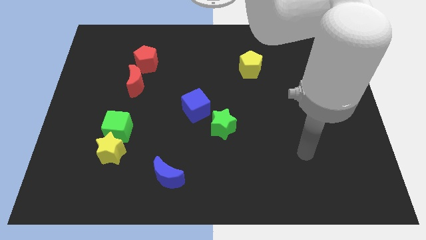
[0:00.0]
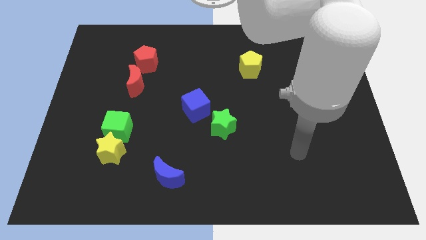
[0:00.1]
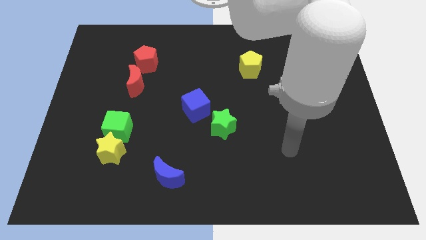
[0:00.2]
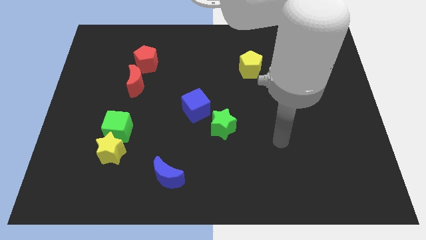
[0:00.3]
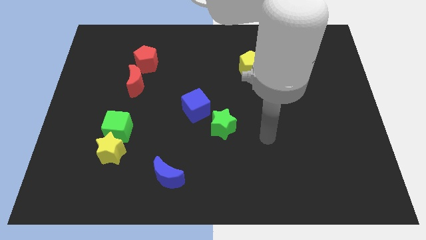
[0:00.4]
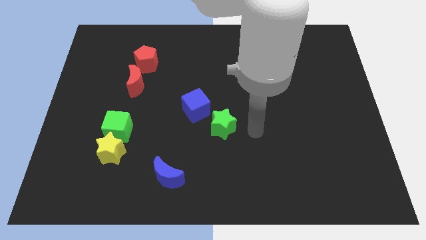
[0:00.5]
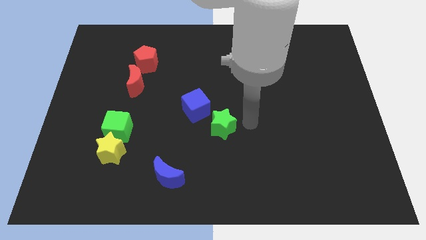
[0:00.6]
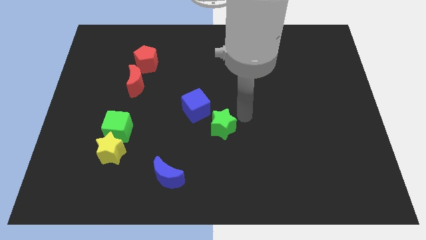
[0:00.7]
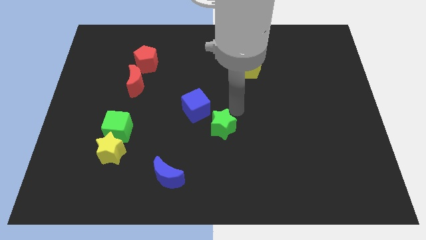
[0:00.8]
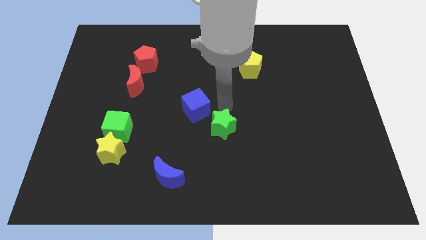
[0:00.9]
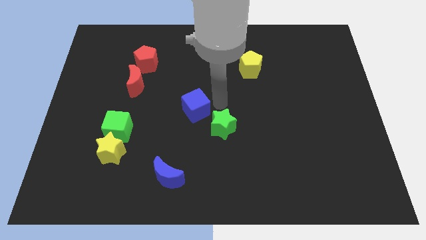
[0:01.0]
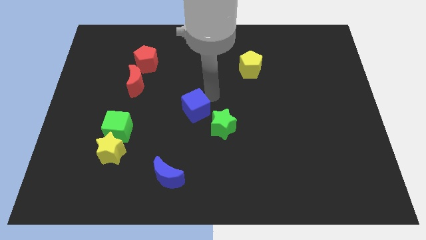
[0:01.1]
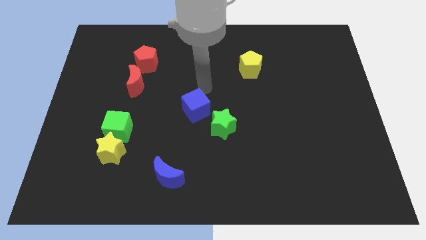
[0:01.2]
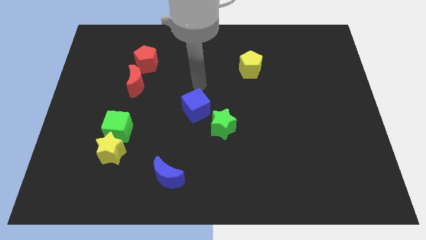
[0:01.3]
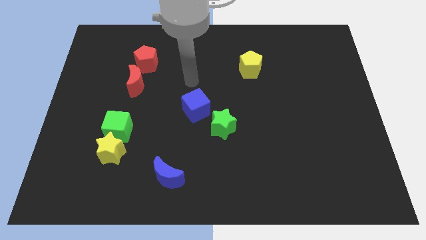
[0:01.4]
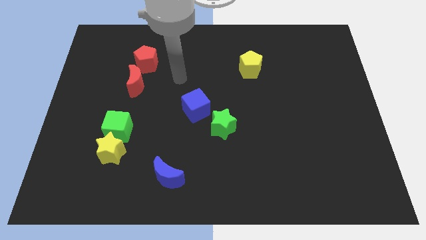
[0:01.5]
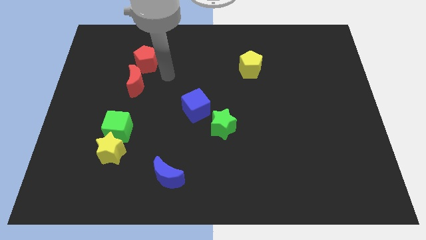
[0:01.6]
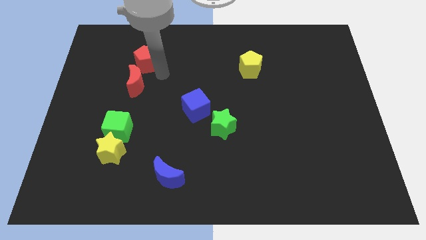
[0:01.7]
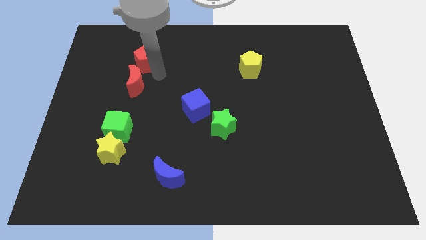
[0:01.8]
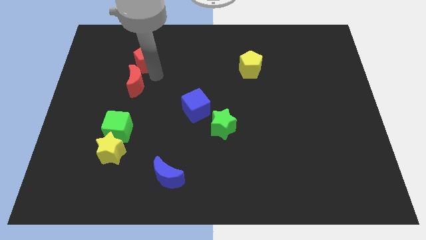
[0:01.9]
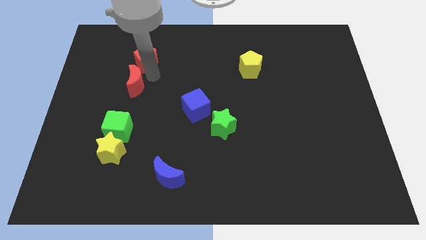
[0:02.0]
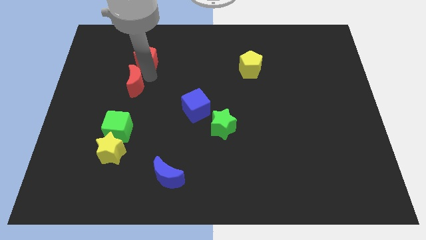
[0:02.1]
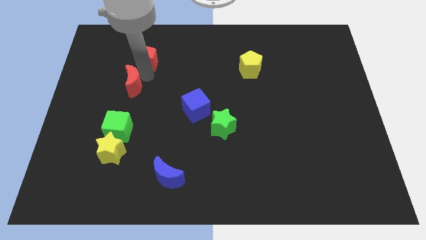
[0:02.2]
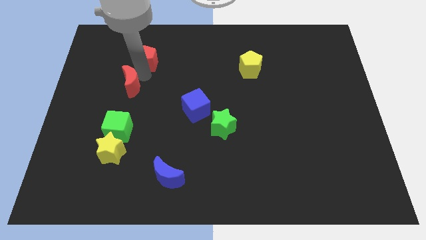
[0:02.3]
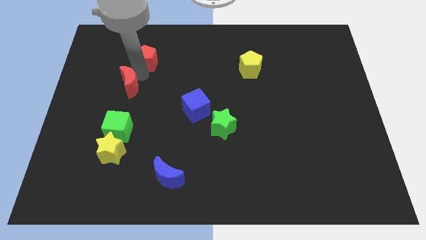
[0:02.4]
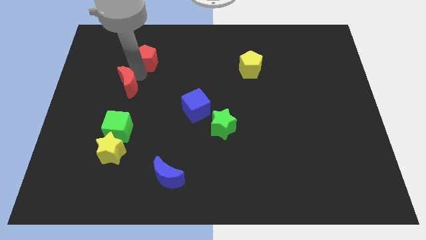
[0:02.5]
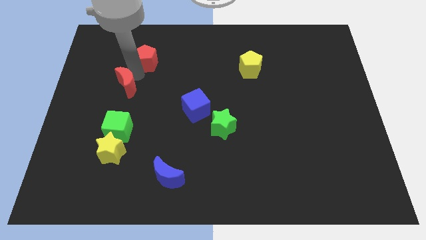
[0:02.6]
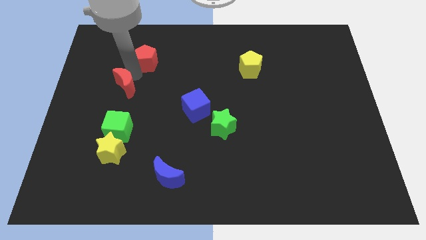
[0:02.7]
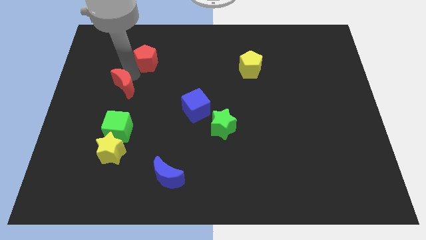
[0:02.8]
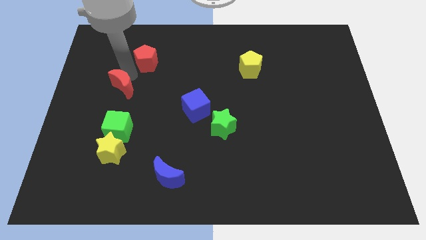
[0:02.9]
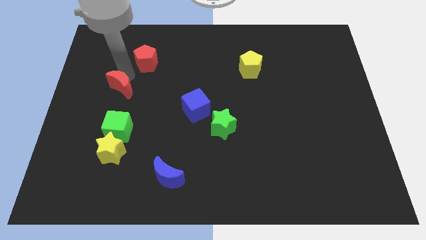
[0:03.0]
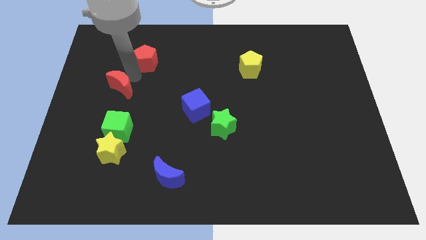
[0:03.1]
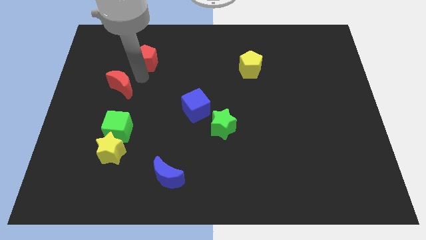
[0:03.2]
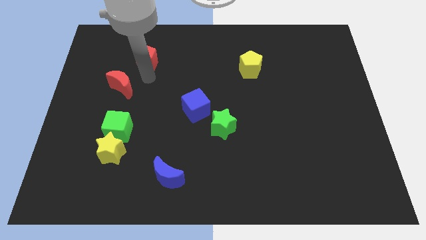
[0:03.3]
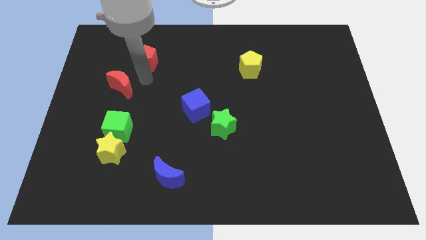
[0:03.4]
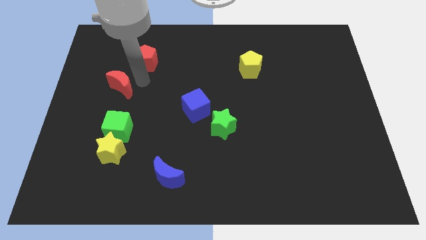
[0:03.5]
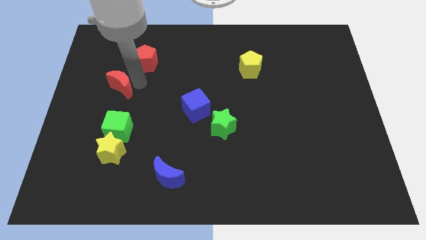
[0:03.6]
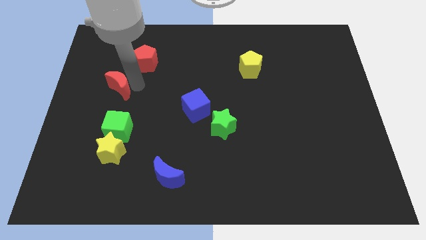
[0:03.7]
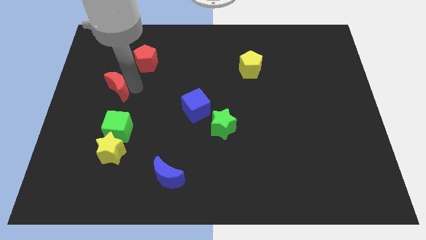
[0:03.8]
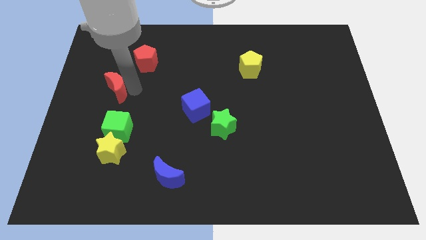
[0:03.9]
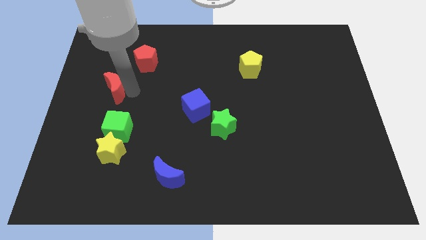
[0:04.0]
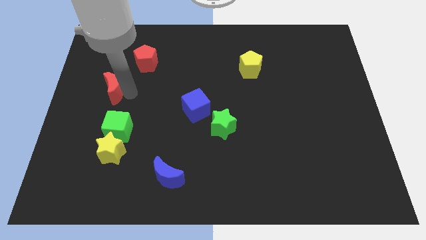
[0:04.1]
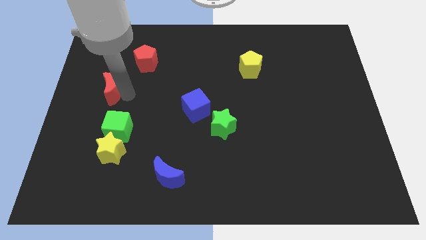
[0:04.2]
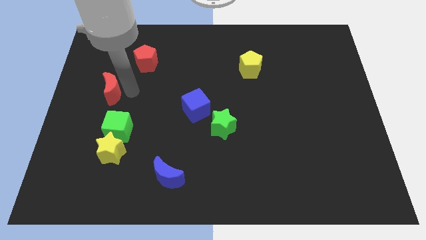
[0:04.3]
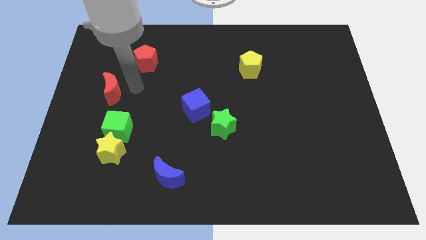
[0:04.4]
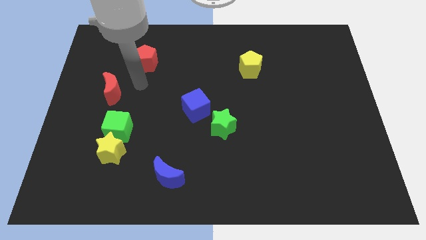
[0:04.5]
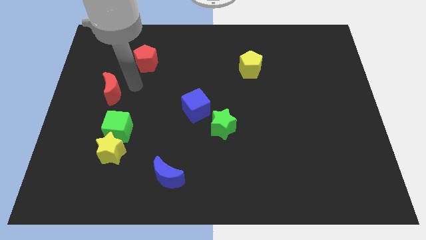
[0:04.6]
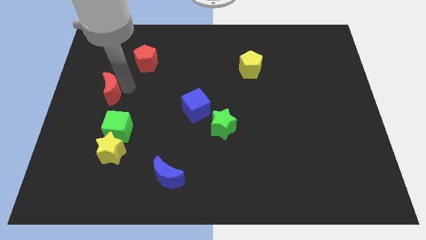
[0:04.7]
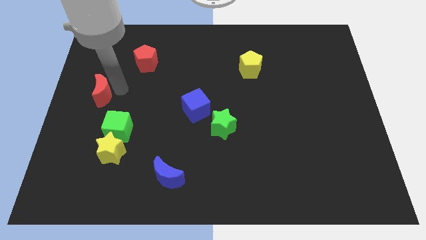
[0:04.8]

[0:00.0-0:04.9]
put the red moon to the left side of the board

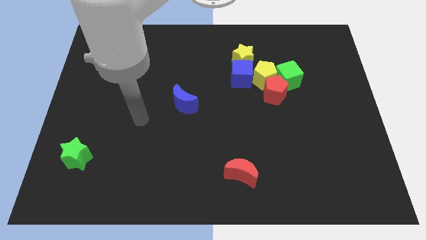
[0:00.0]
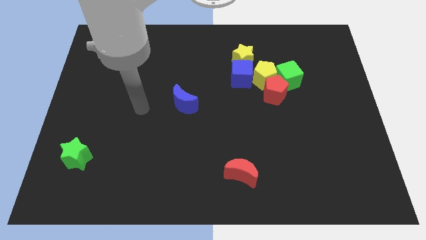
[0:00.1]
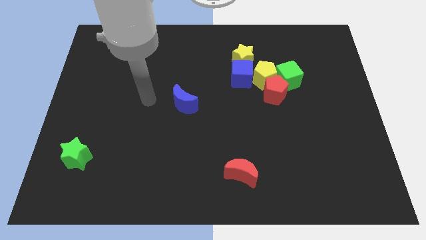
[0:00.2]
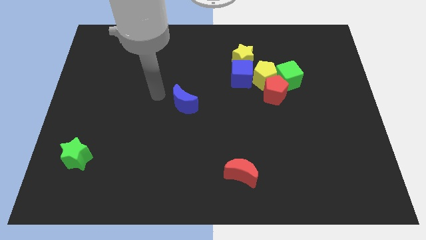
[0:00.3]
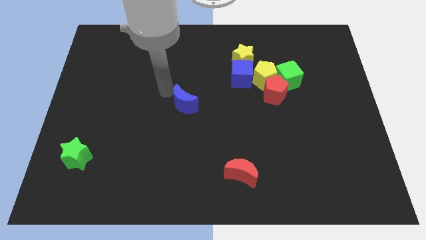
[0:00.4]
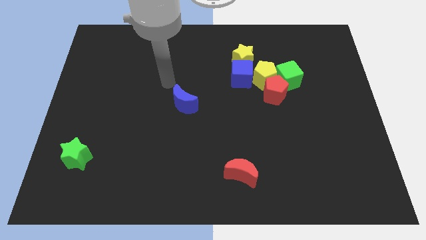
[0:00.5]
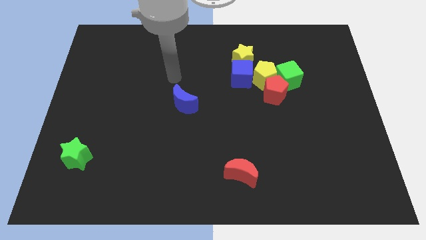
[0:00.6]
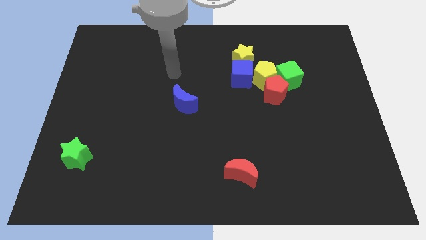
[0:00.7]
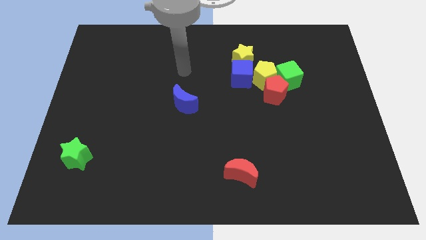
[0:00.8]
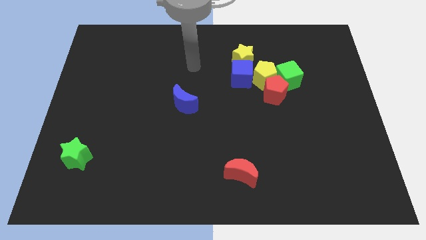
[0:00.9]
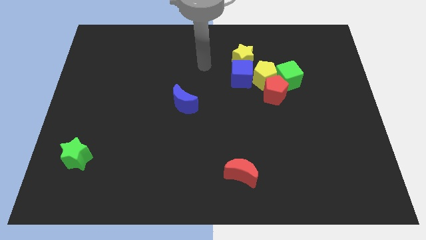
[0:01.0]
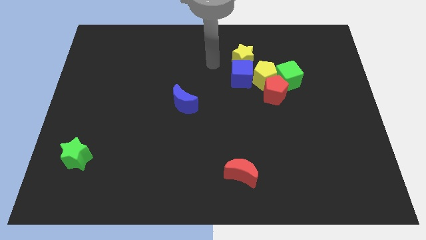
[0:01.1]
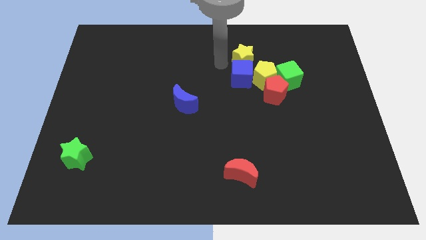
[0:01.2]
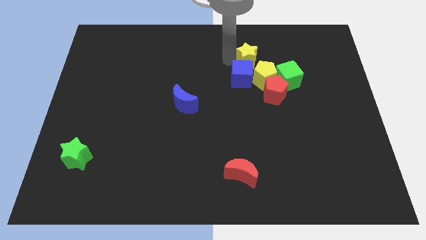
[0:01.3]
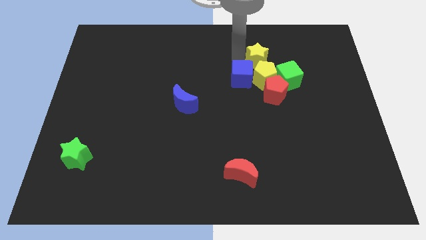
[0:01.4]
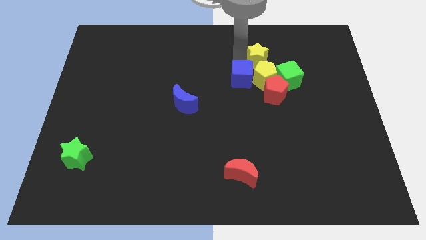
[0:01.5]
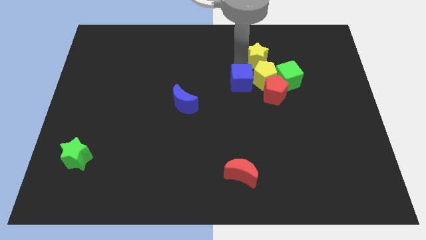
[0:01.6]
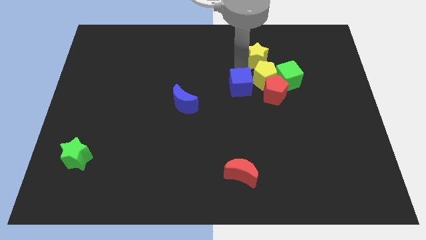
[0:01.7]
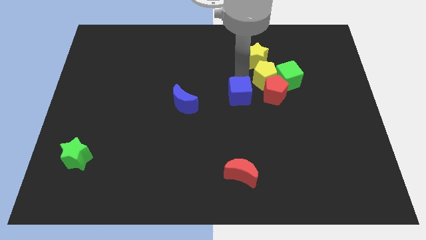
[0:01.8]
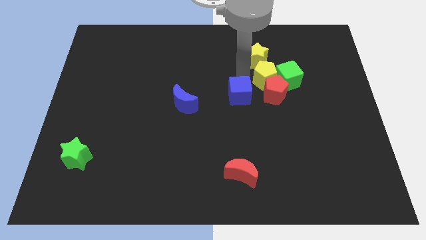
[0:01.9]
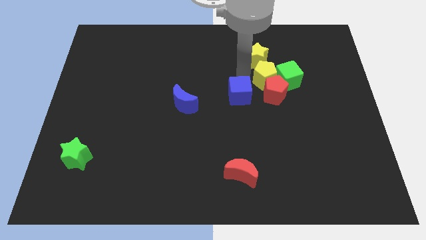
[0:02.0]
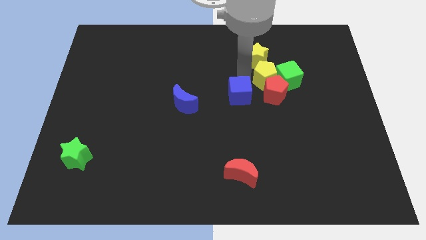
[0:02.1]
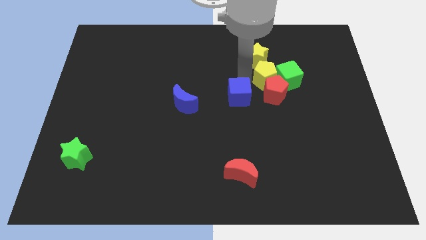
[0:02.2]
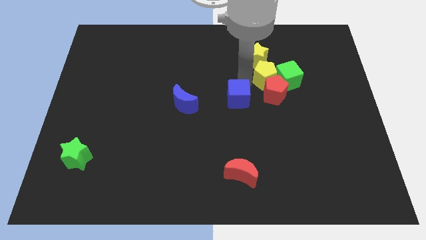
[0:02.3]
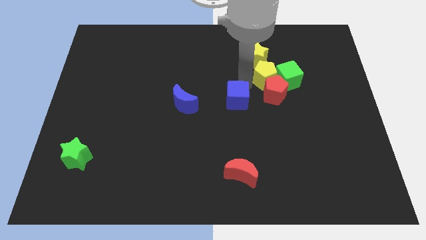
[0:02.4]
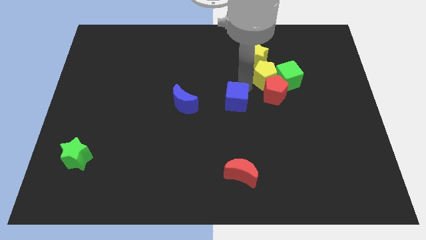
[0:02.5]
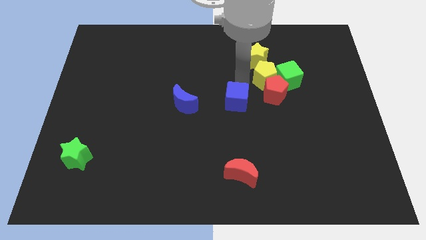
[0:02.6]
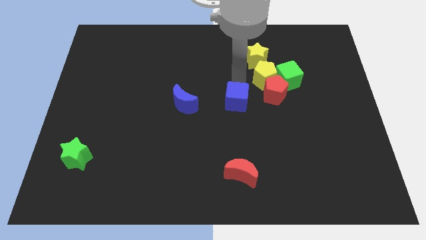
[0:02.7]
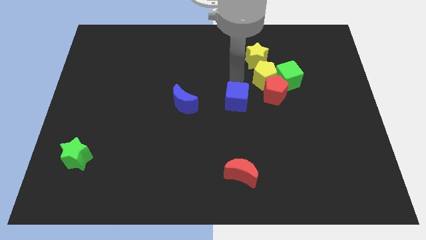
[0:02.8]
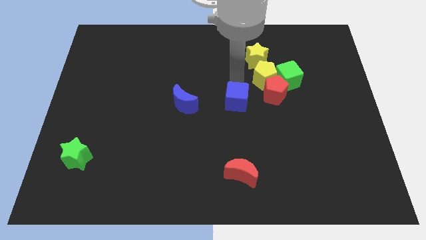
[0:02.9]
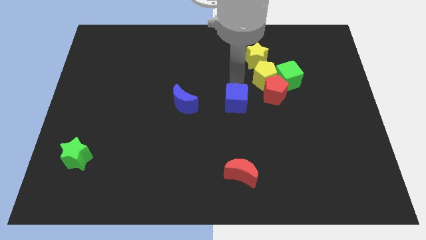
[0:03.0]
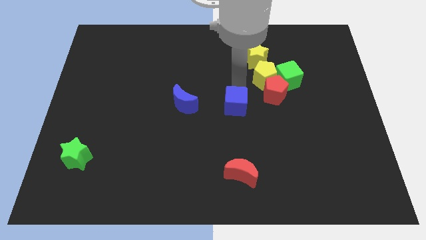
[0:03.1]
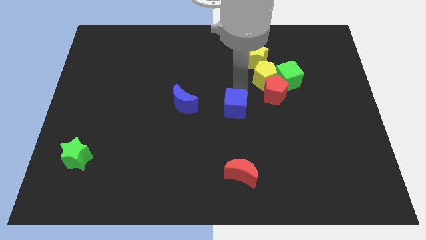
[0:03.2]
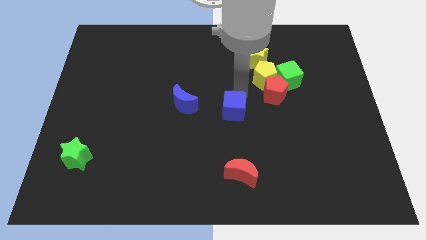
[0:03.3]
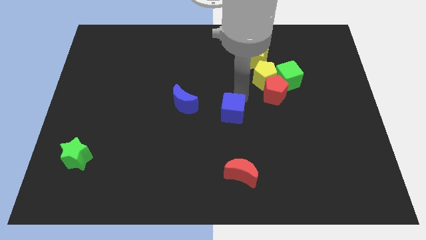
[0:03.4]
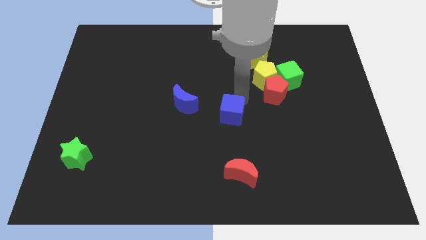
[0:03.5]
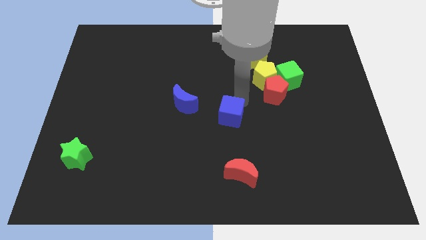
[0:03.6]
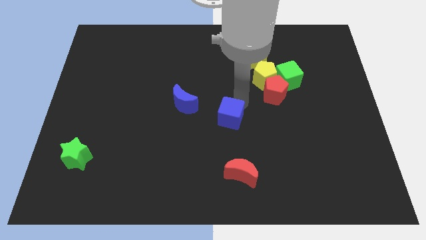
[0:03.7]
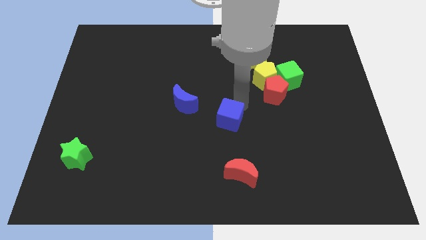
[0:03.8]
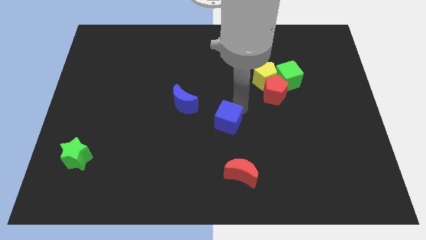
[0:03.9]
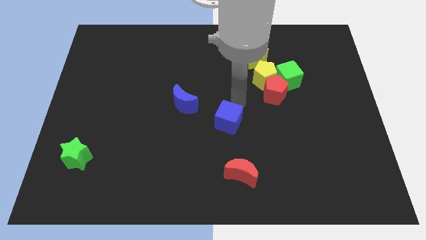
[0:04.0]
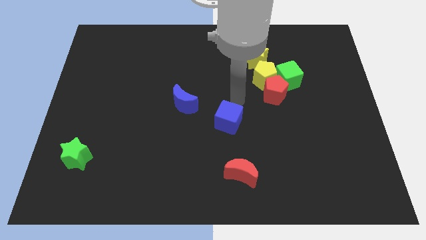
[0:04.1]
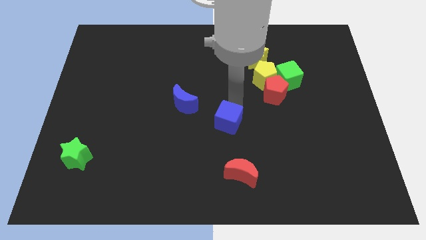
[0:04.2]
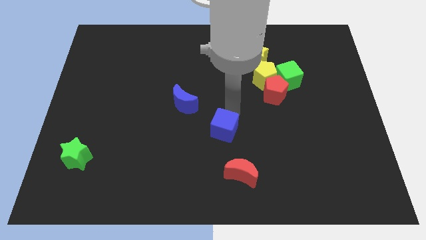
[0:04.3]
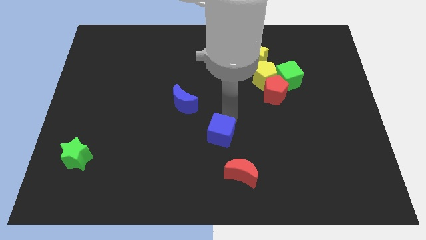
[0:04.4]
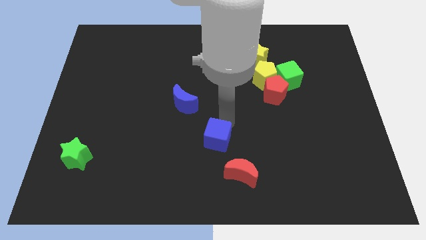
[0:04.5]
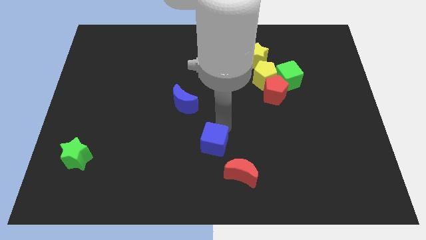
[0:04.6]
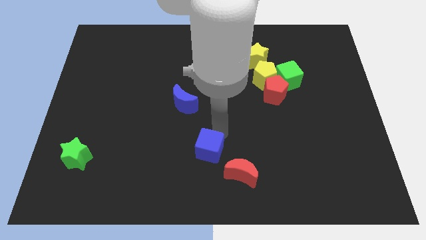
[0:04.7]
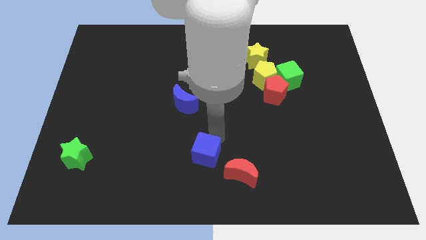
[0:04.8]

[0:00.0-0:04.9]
move the blue cube to the bottom side
